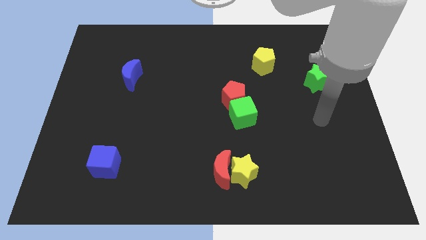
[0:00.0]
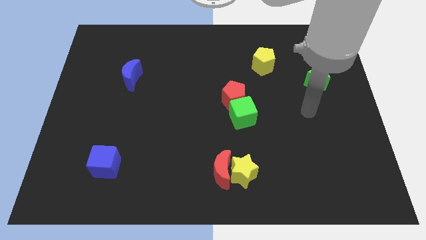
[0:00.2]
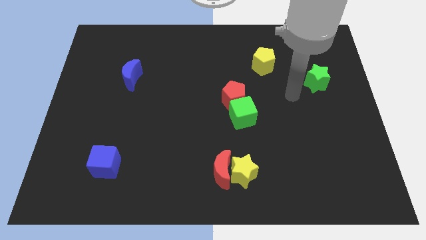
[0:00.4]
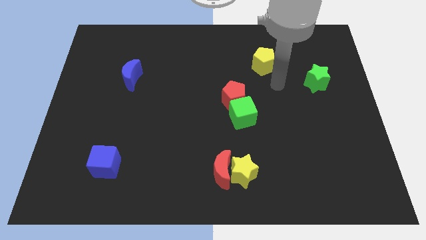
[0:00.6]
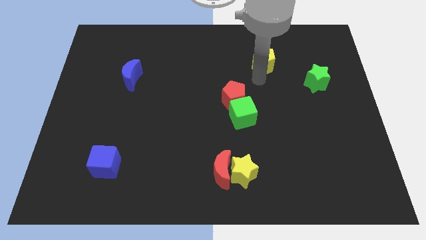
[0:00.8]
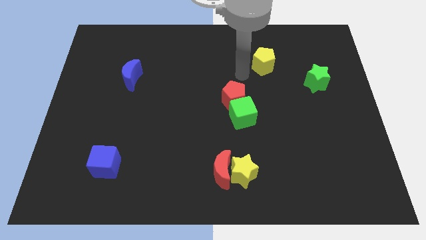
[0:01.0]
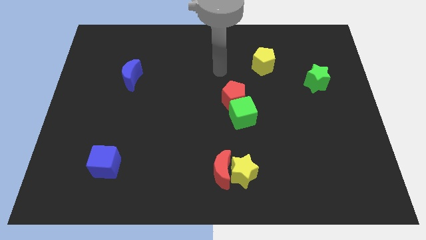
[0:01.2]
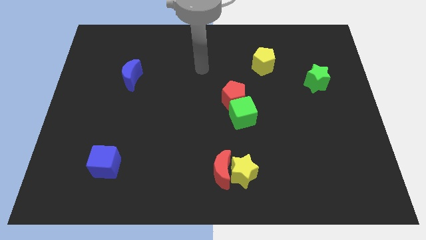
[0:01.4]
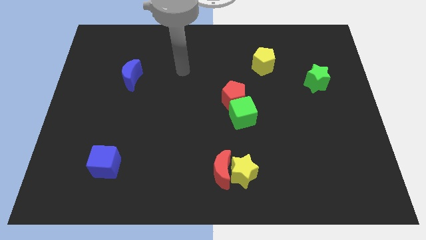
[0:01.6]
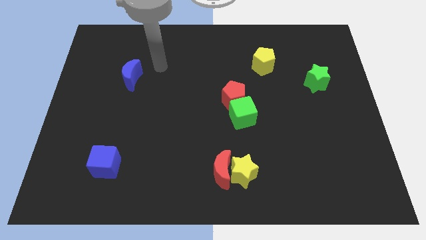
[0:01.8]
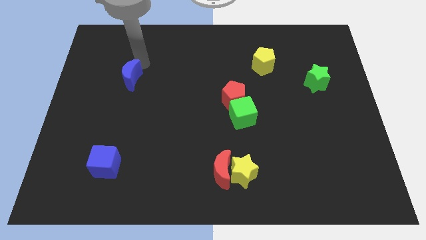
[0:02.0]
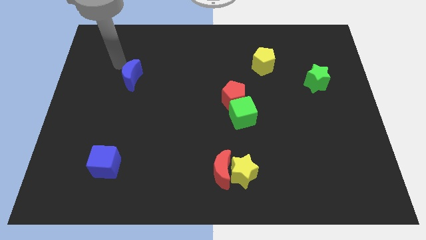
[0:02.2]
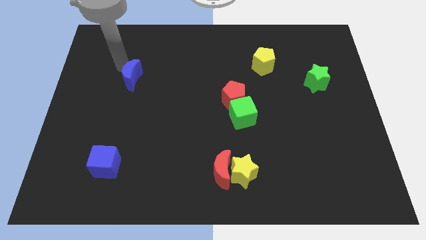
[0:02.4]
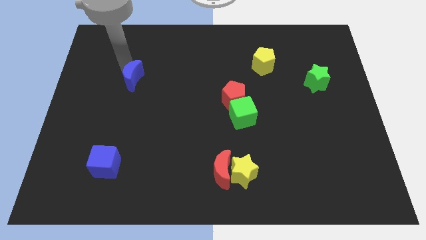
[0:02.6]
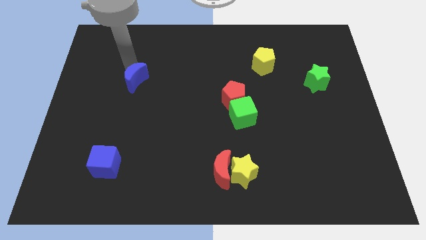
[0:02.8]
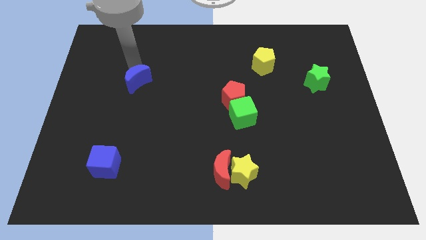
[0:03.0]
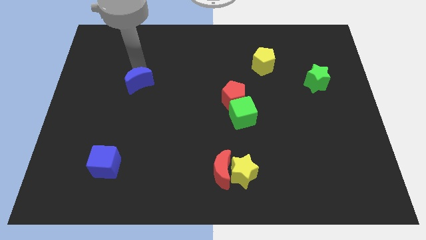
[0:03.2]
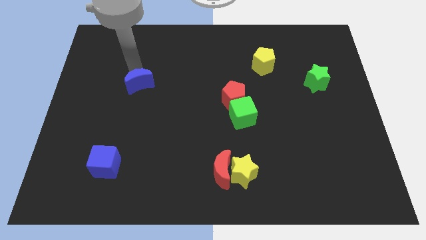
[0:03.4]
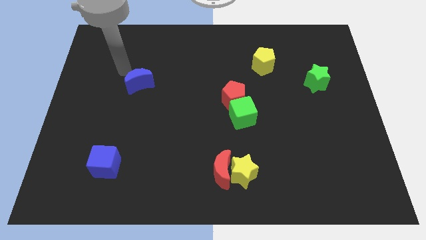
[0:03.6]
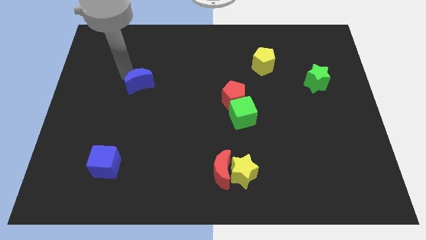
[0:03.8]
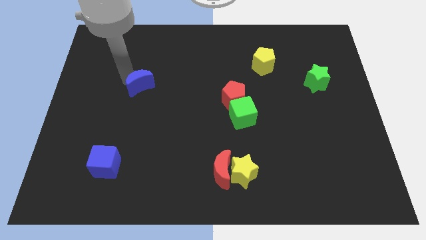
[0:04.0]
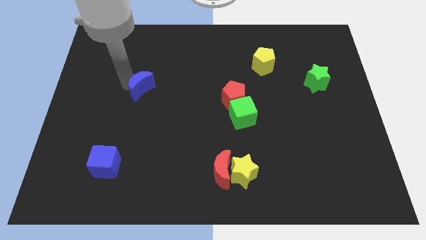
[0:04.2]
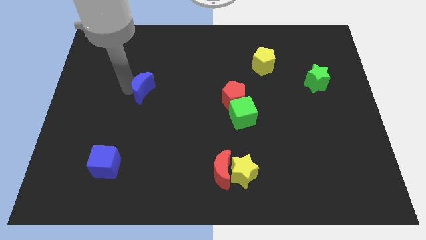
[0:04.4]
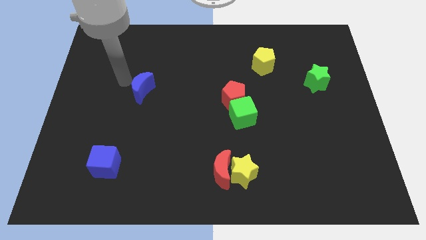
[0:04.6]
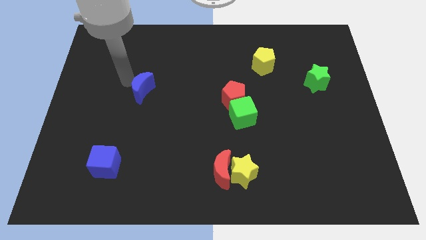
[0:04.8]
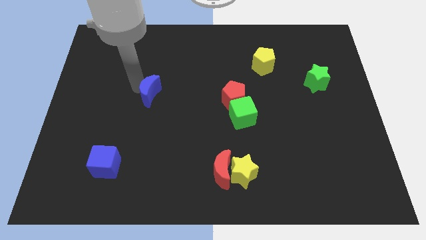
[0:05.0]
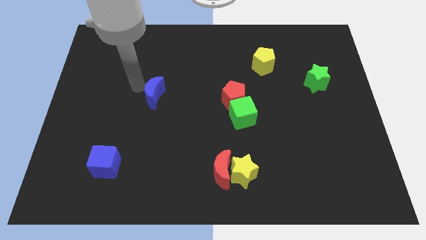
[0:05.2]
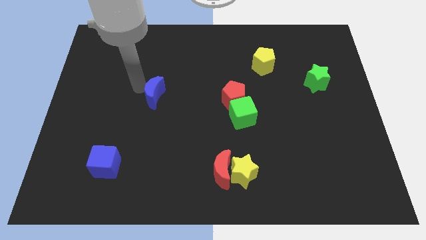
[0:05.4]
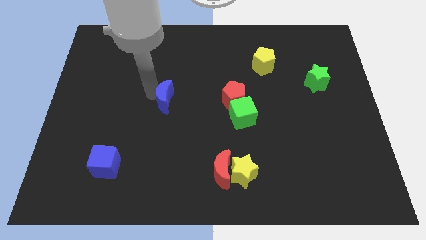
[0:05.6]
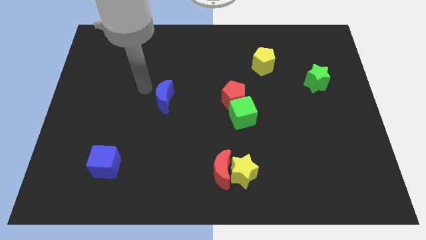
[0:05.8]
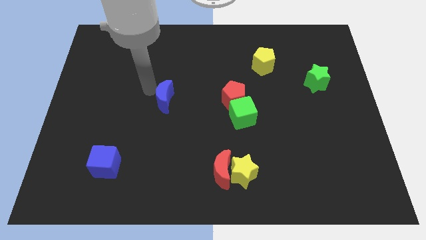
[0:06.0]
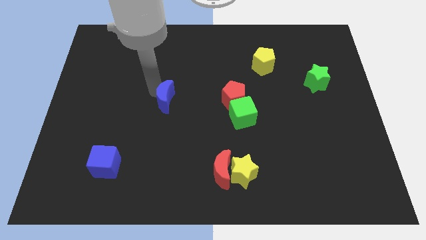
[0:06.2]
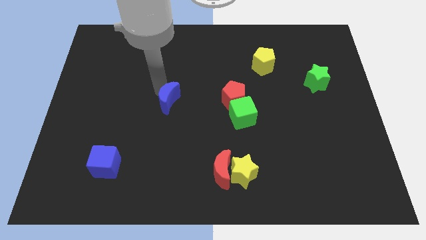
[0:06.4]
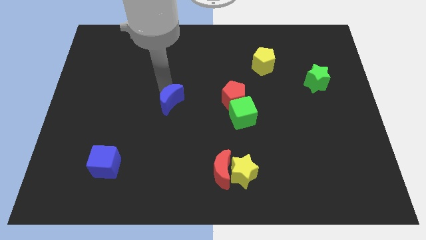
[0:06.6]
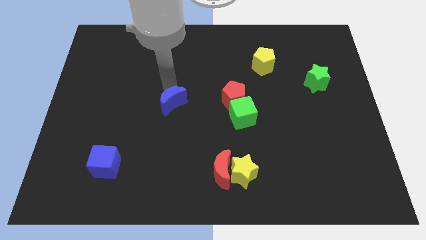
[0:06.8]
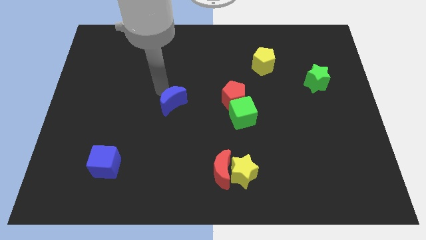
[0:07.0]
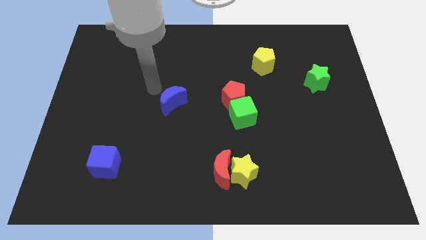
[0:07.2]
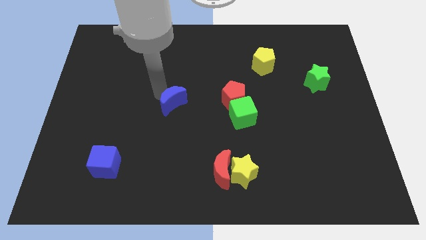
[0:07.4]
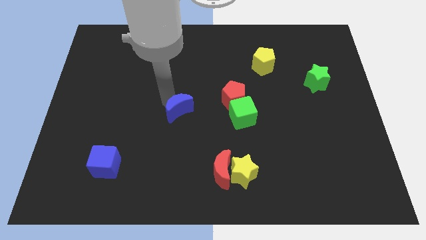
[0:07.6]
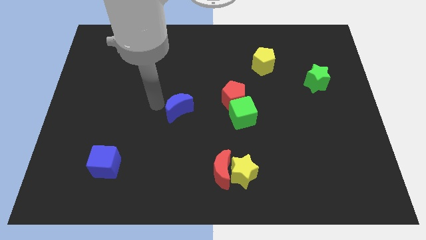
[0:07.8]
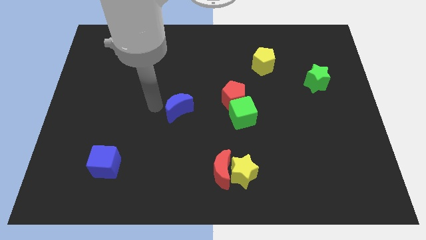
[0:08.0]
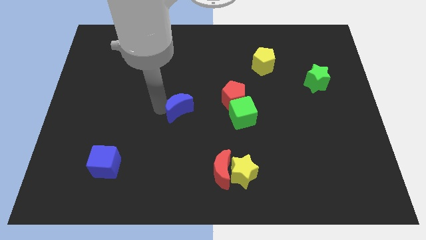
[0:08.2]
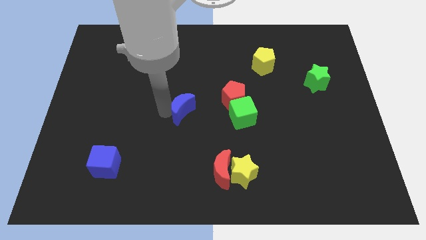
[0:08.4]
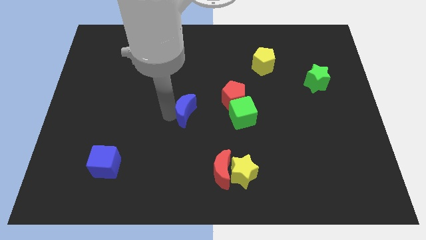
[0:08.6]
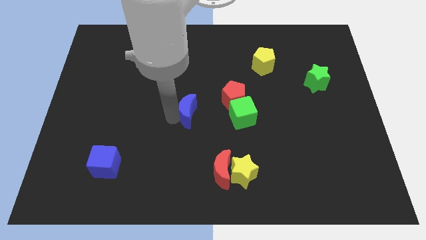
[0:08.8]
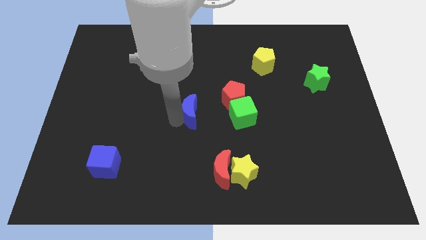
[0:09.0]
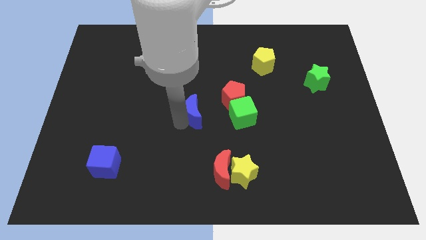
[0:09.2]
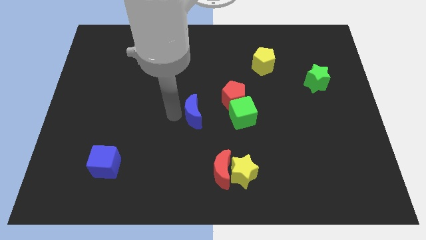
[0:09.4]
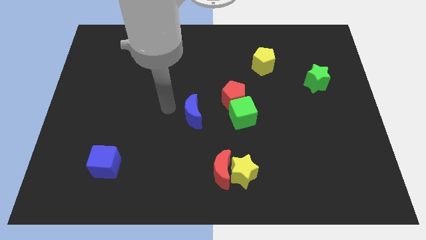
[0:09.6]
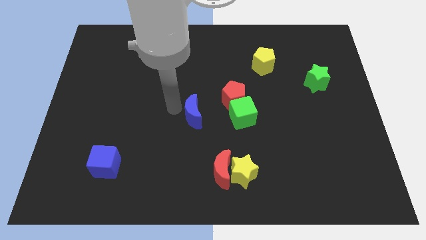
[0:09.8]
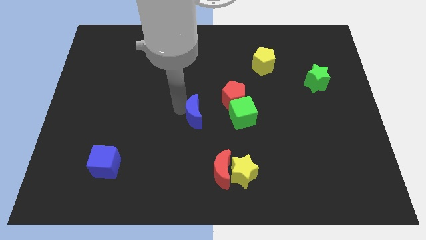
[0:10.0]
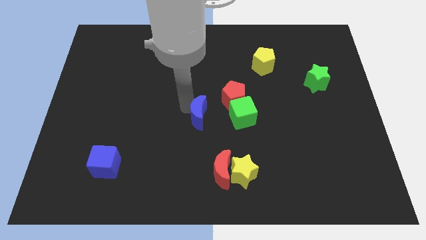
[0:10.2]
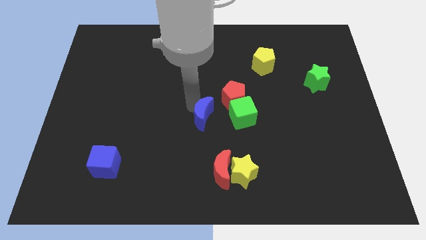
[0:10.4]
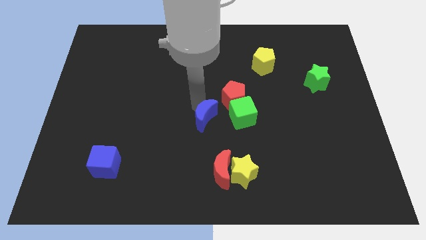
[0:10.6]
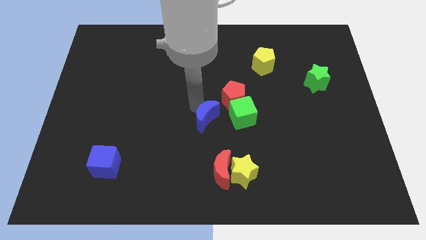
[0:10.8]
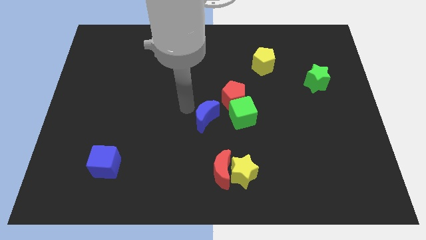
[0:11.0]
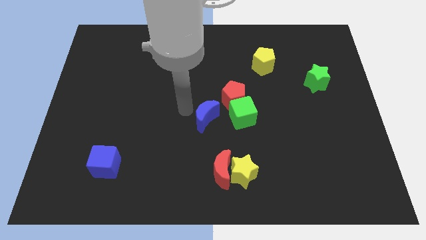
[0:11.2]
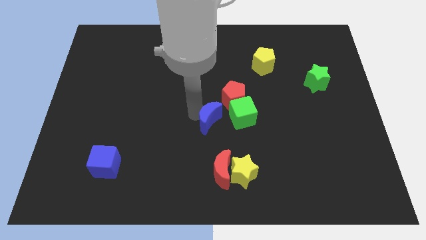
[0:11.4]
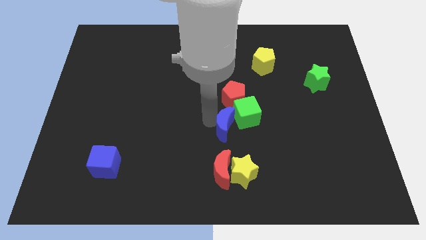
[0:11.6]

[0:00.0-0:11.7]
slide the blue moon to the top of the yellow star

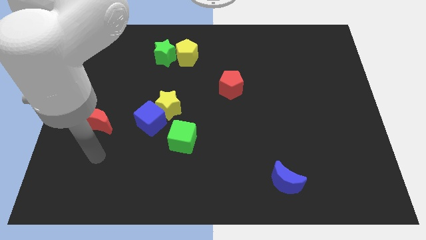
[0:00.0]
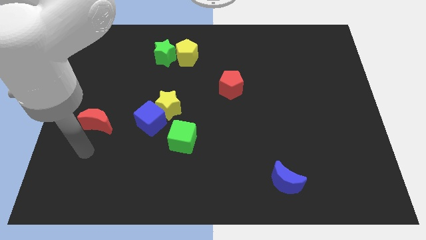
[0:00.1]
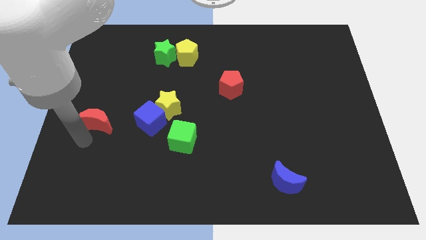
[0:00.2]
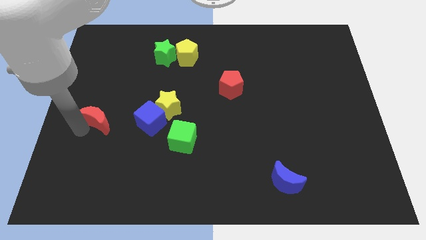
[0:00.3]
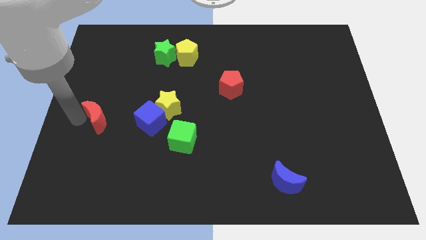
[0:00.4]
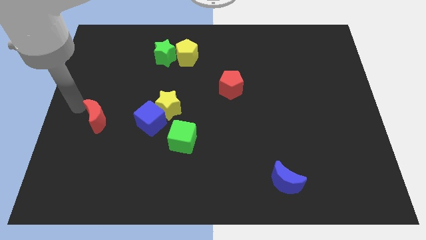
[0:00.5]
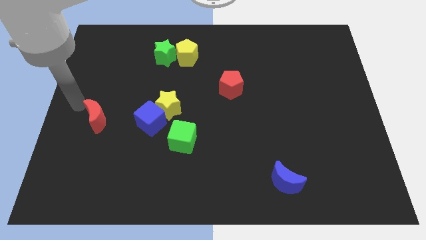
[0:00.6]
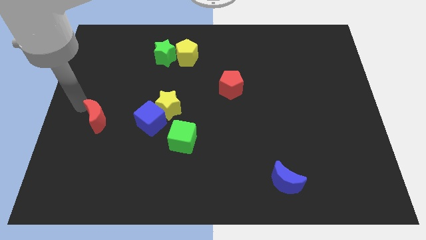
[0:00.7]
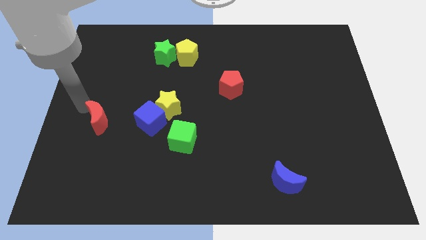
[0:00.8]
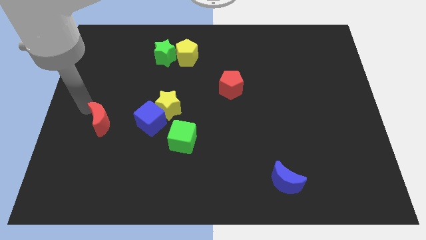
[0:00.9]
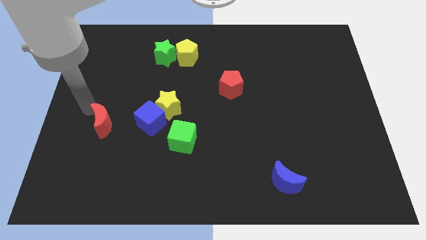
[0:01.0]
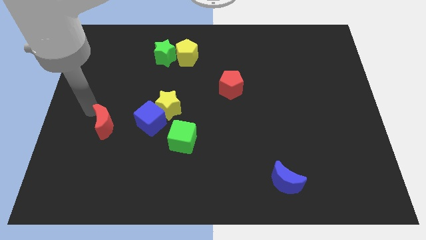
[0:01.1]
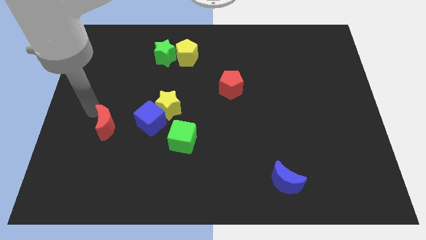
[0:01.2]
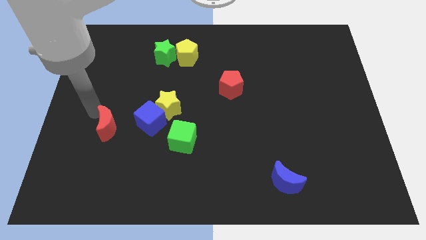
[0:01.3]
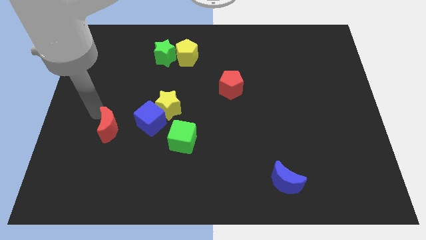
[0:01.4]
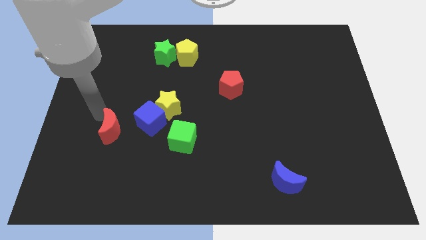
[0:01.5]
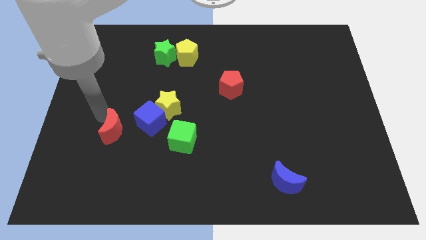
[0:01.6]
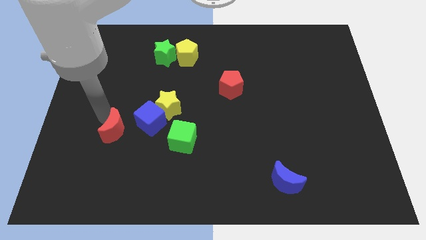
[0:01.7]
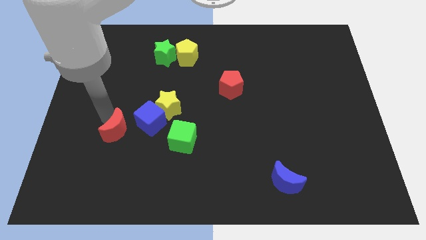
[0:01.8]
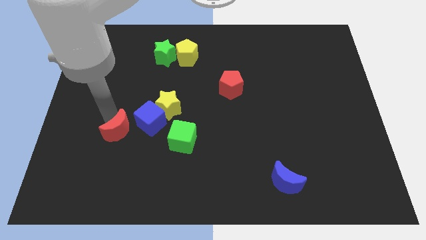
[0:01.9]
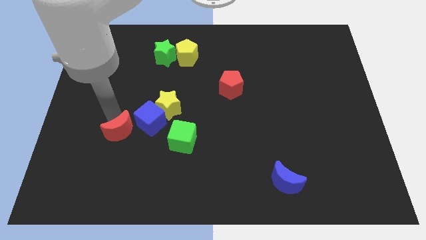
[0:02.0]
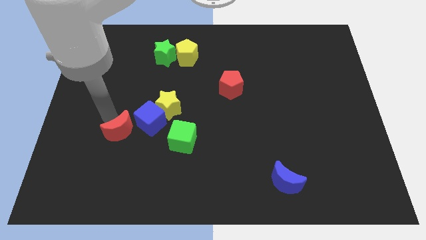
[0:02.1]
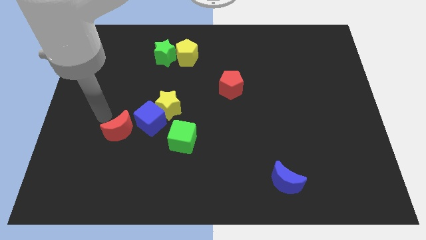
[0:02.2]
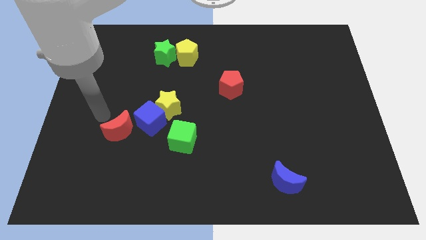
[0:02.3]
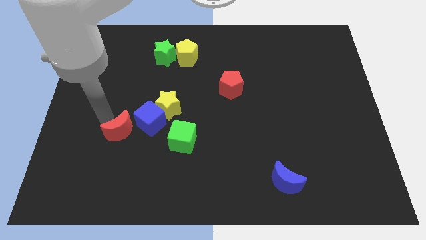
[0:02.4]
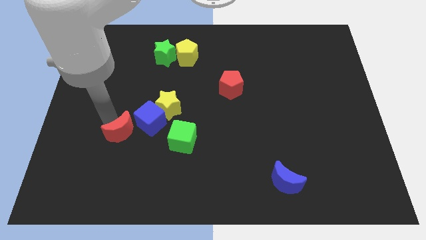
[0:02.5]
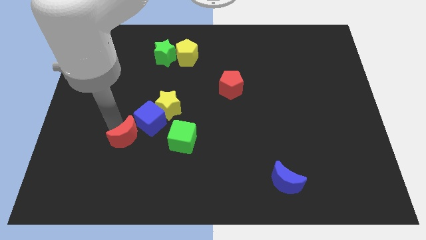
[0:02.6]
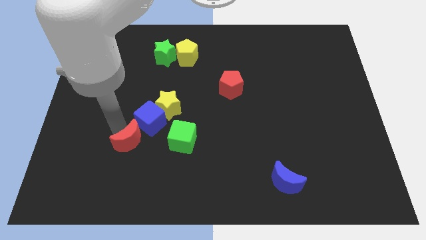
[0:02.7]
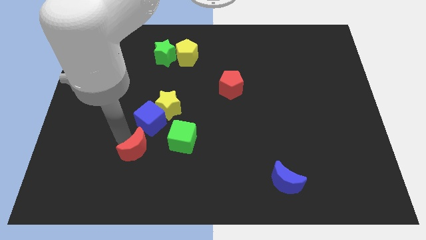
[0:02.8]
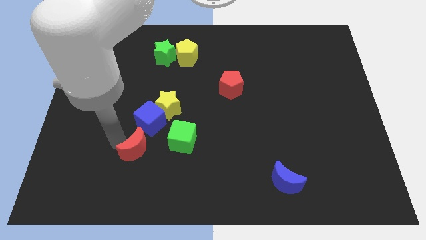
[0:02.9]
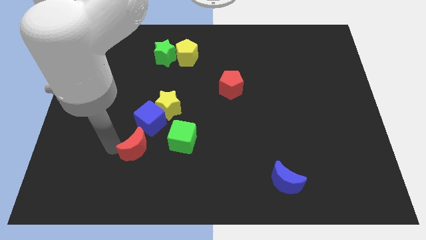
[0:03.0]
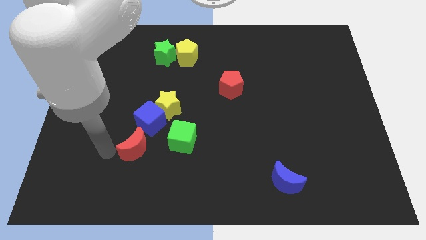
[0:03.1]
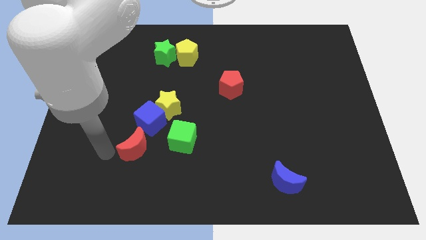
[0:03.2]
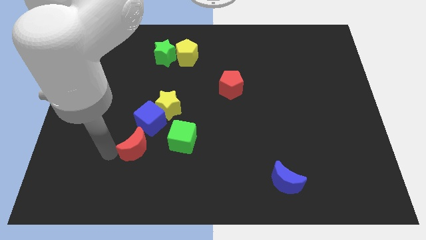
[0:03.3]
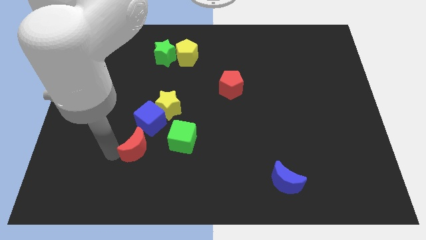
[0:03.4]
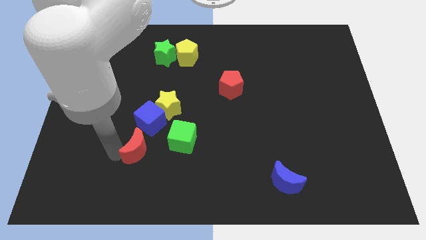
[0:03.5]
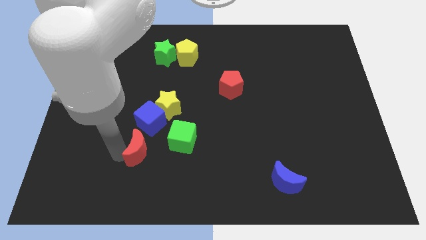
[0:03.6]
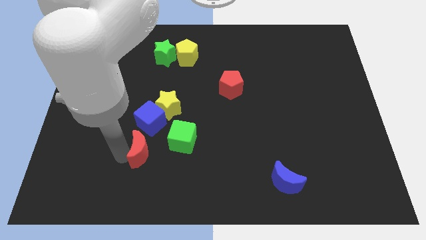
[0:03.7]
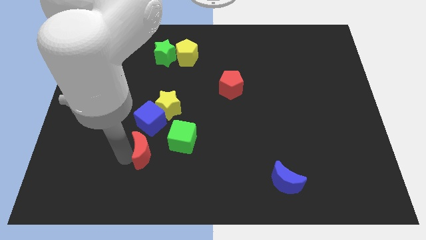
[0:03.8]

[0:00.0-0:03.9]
slide the red moon below the yellow star
